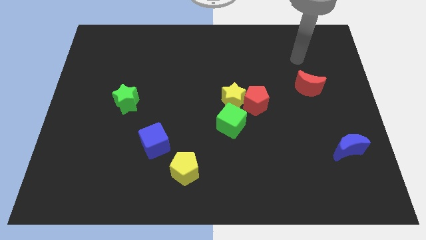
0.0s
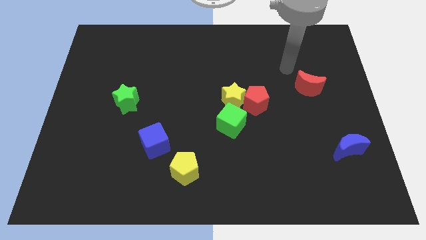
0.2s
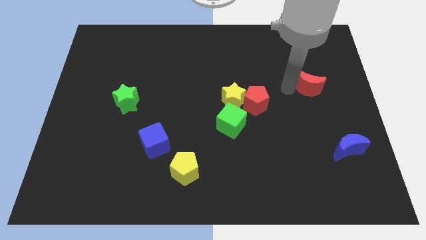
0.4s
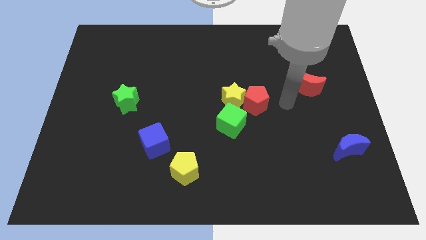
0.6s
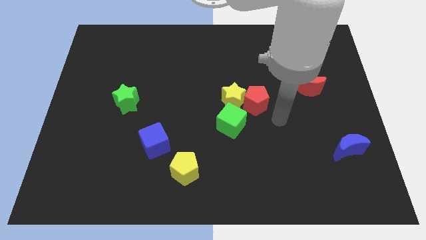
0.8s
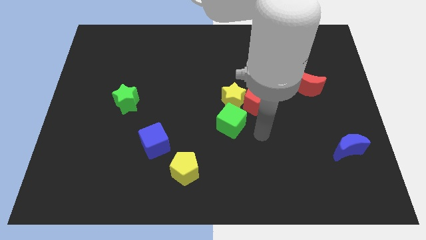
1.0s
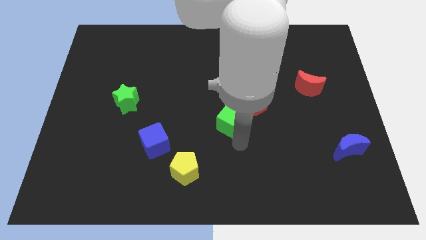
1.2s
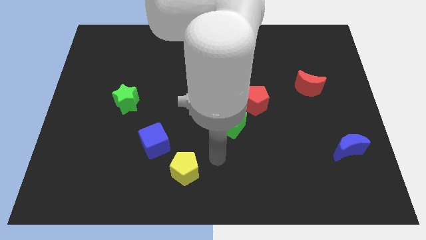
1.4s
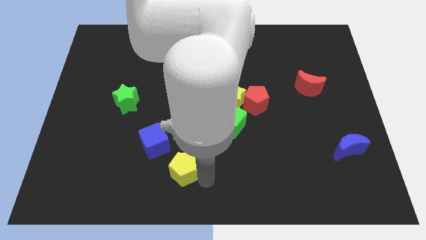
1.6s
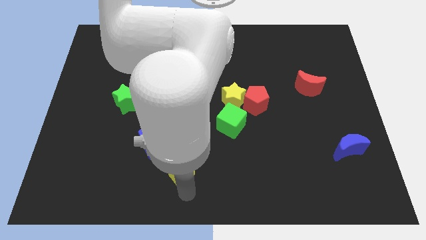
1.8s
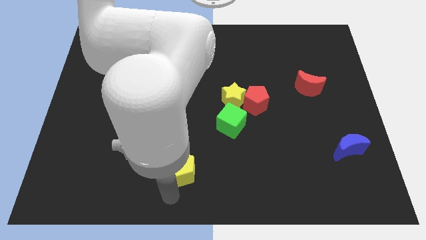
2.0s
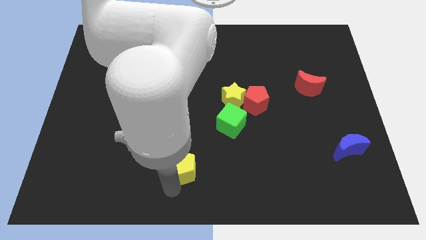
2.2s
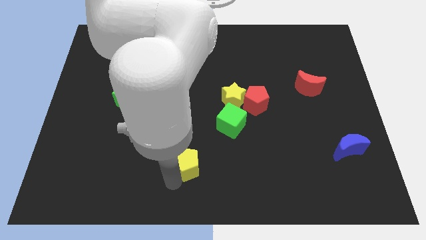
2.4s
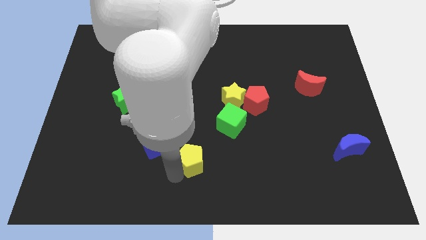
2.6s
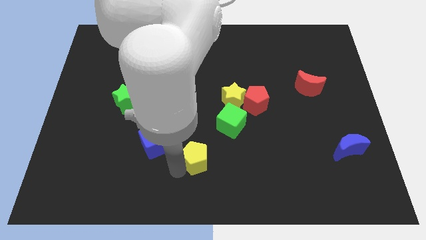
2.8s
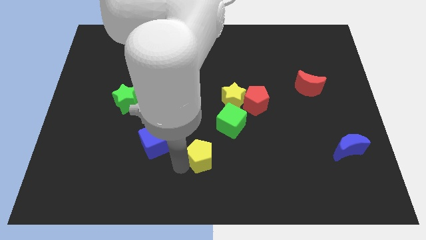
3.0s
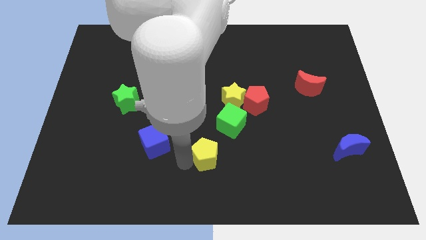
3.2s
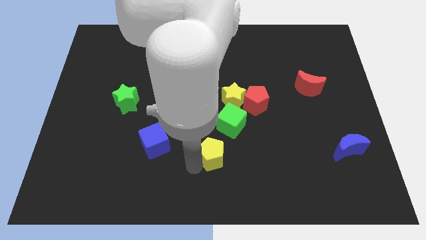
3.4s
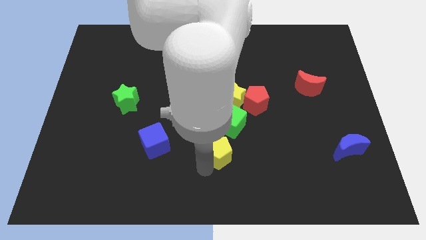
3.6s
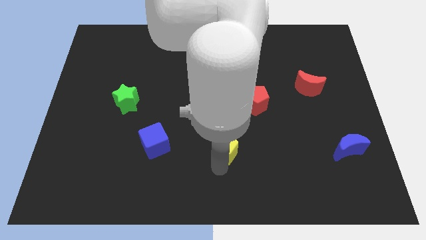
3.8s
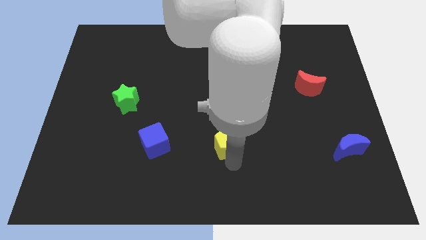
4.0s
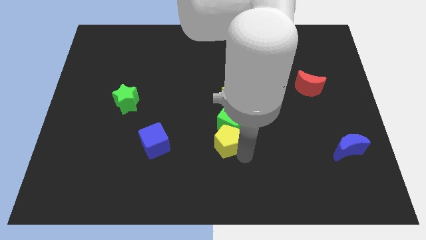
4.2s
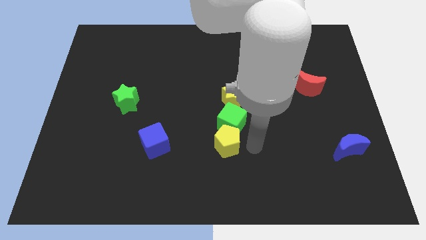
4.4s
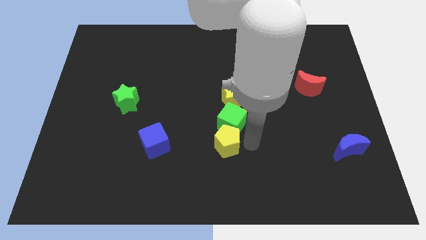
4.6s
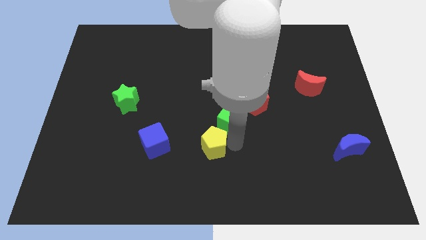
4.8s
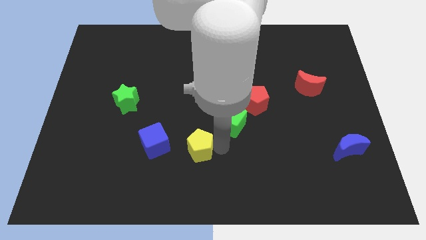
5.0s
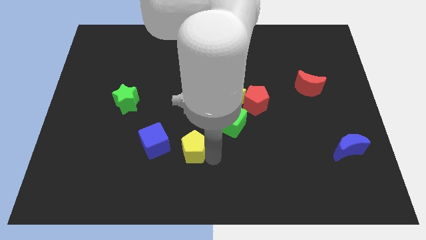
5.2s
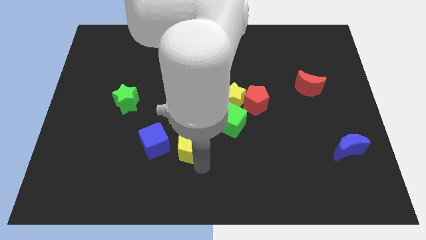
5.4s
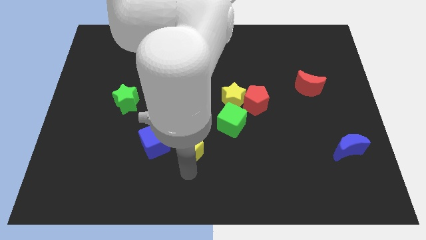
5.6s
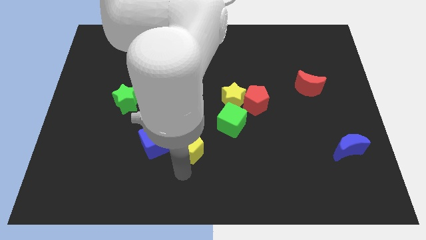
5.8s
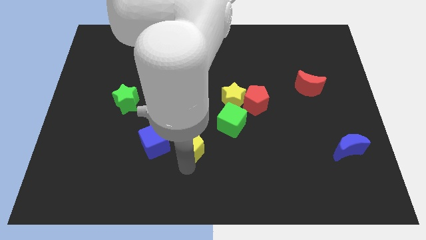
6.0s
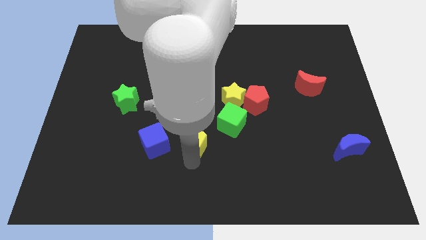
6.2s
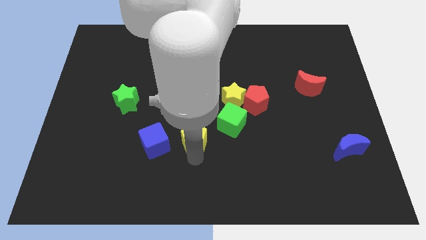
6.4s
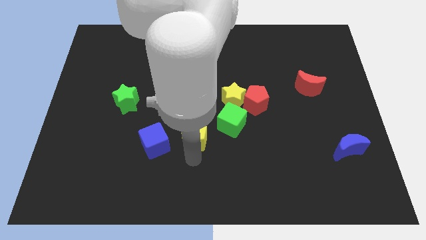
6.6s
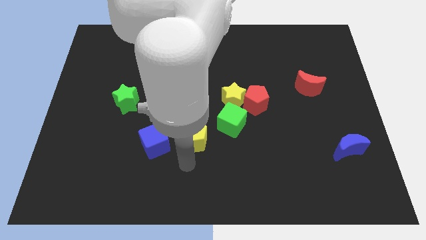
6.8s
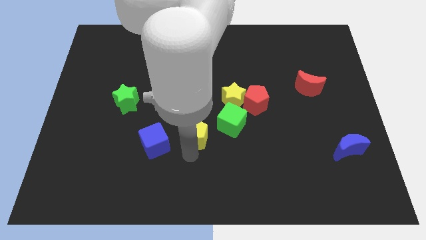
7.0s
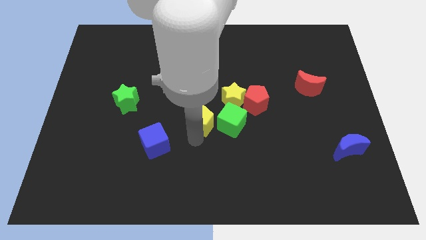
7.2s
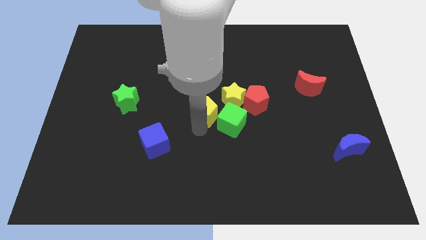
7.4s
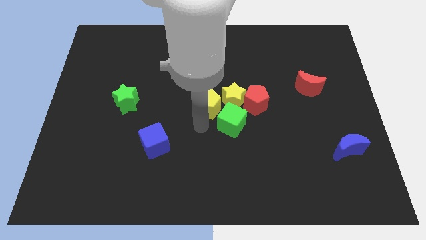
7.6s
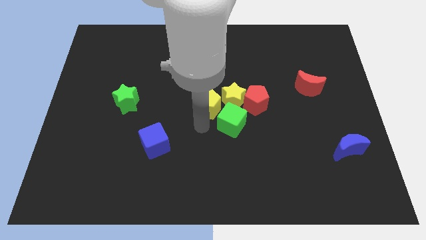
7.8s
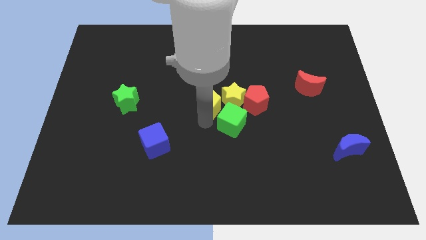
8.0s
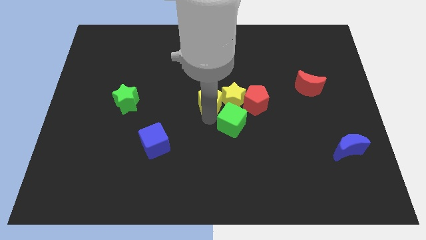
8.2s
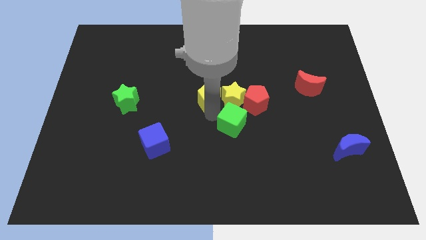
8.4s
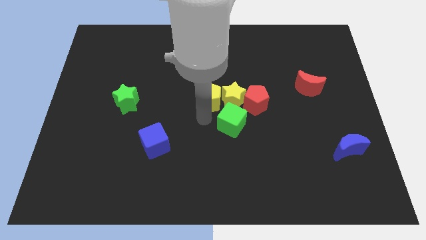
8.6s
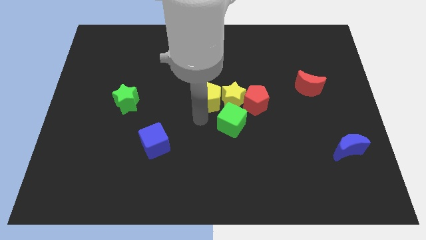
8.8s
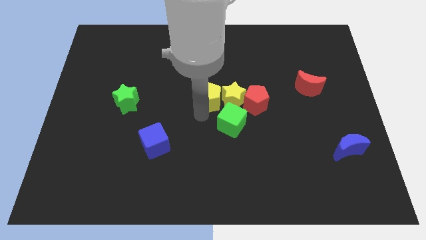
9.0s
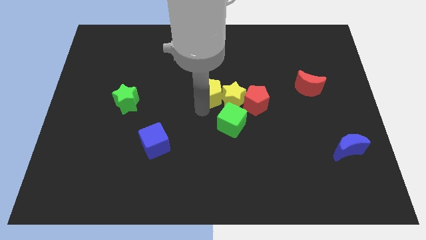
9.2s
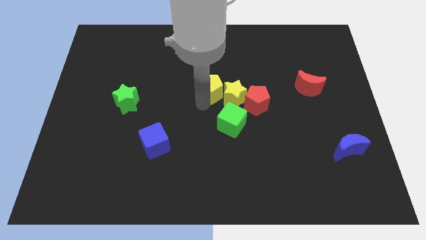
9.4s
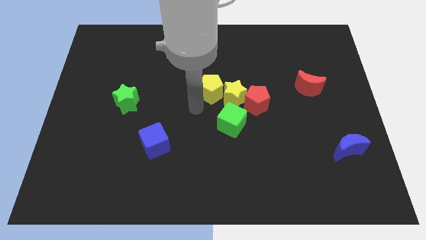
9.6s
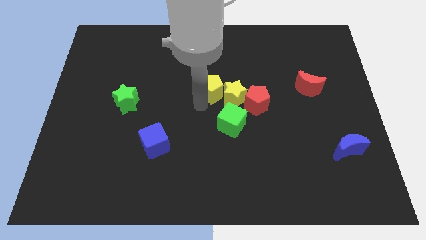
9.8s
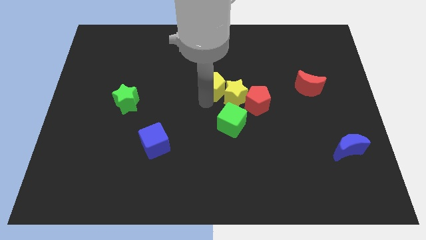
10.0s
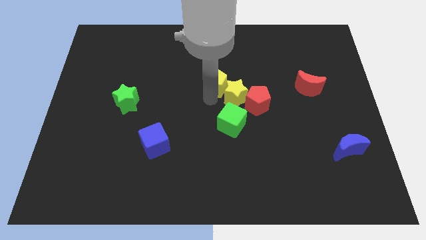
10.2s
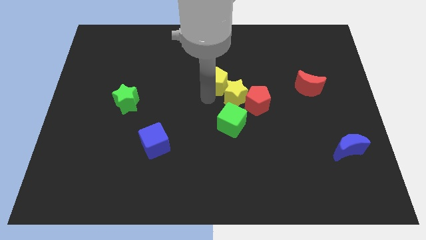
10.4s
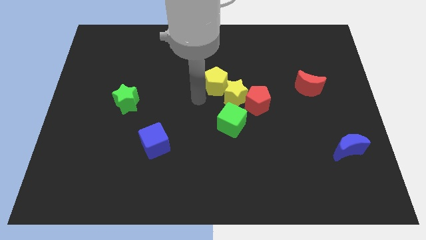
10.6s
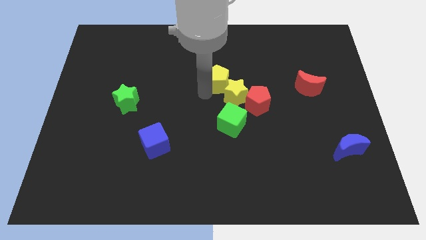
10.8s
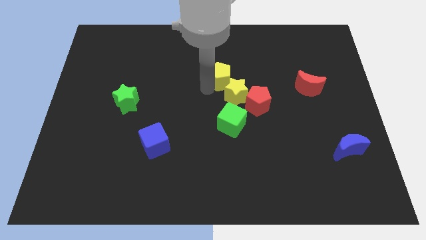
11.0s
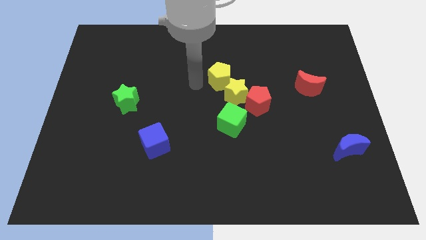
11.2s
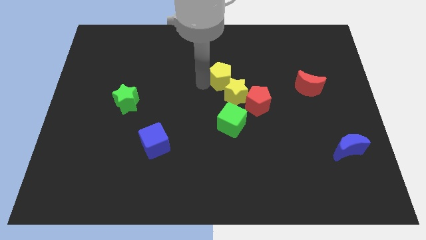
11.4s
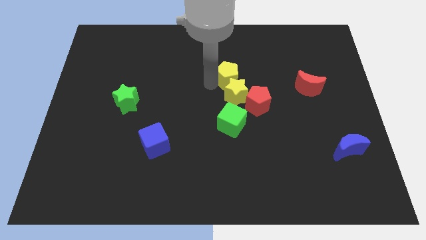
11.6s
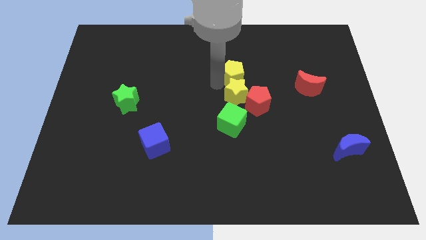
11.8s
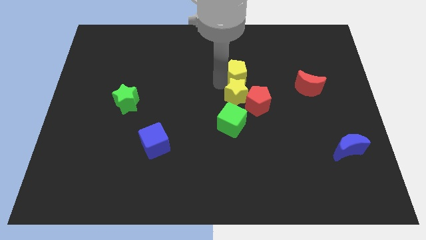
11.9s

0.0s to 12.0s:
put the yellow pentagon above the red pentagon

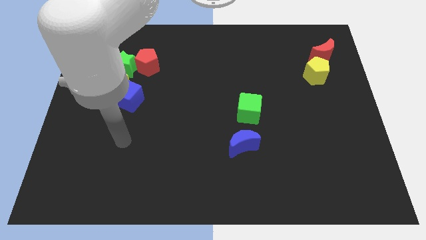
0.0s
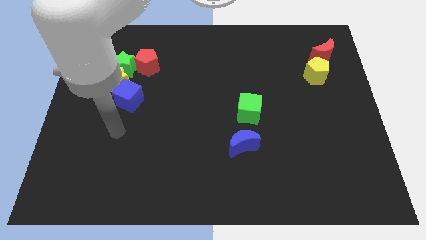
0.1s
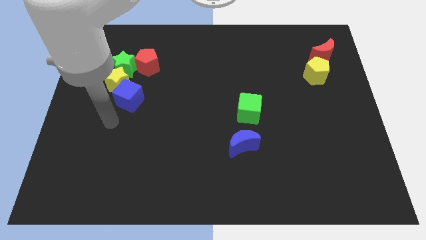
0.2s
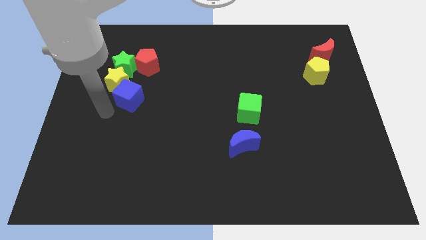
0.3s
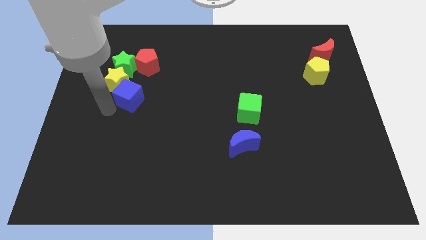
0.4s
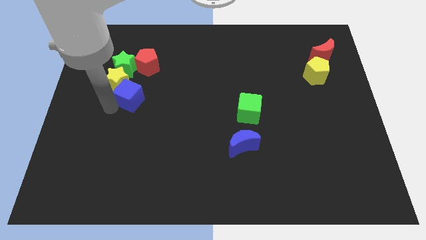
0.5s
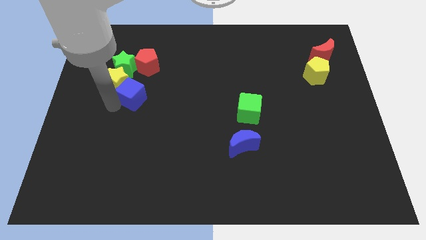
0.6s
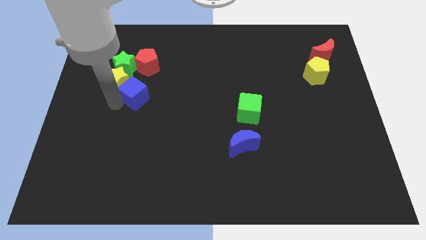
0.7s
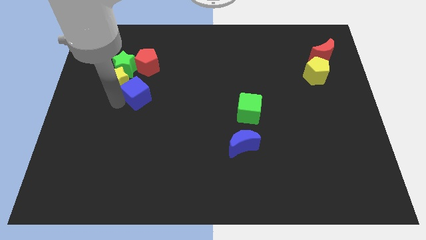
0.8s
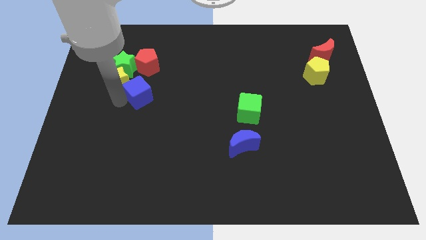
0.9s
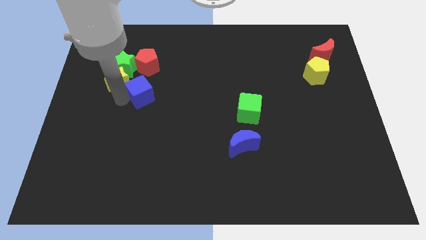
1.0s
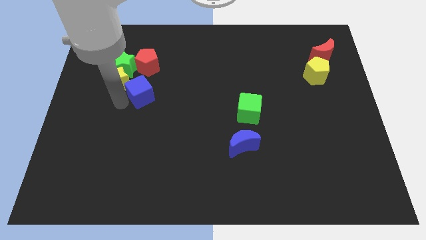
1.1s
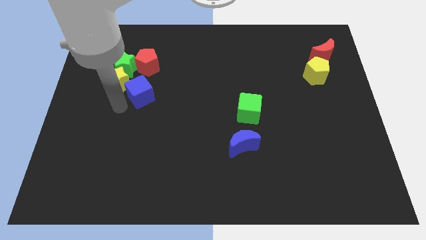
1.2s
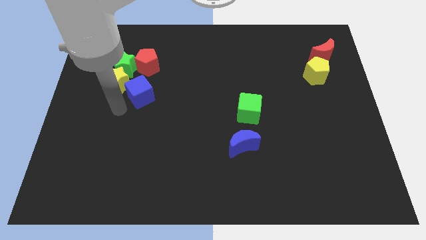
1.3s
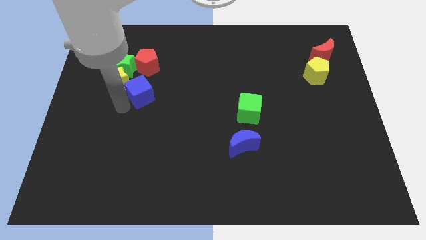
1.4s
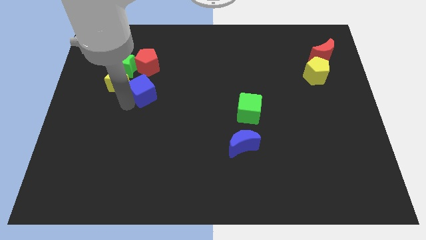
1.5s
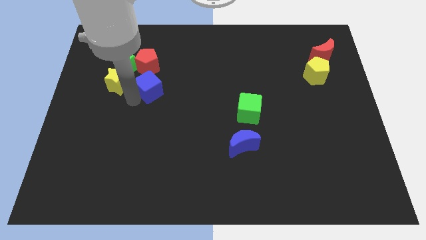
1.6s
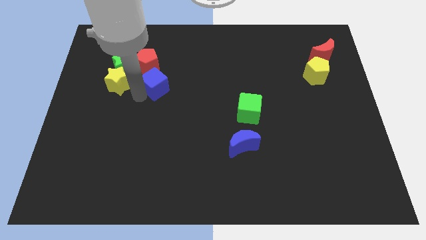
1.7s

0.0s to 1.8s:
push the blue cube to the bottom right side of the red pentagon
